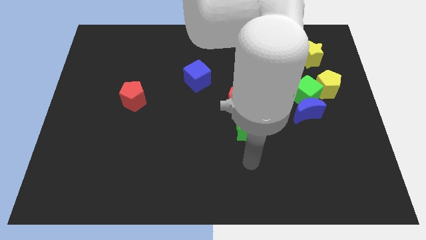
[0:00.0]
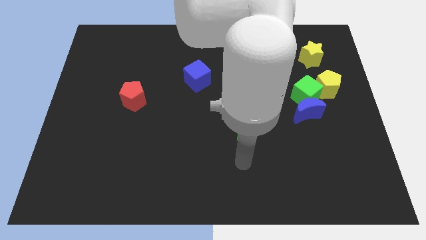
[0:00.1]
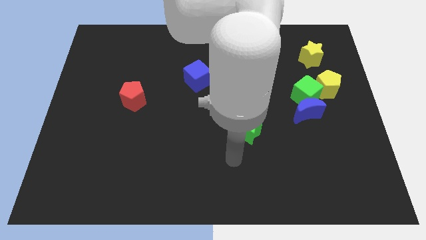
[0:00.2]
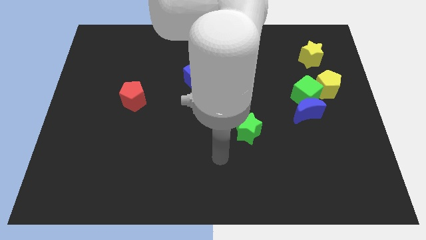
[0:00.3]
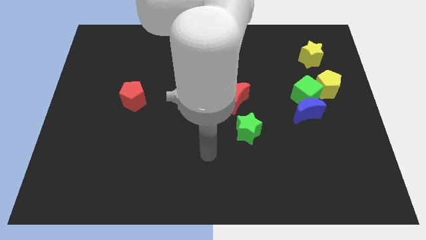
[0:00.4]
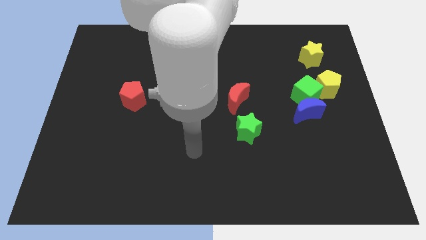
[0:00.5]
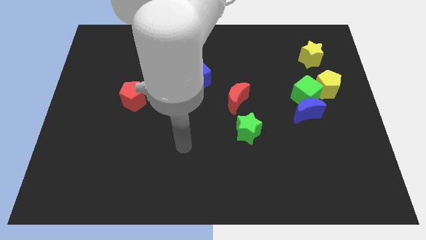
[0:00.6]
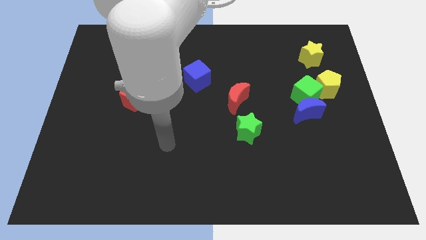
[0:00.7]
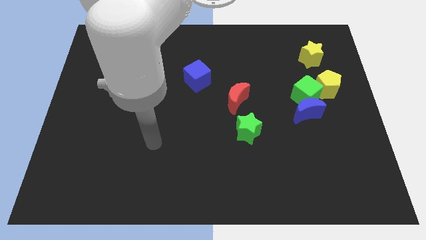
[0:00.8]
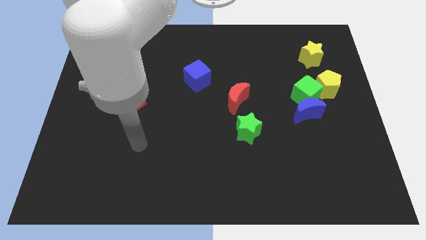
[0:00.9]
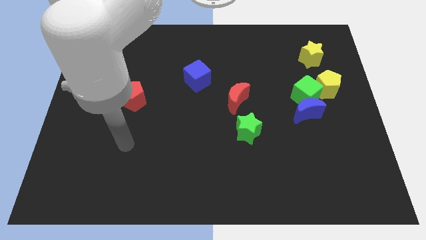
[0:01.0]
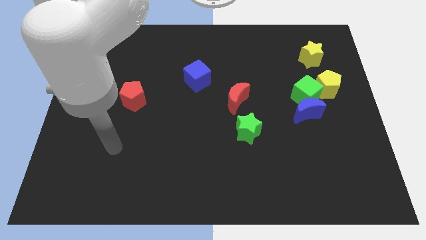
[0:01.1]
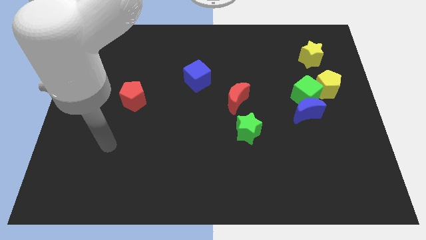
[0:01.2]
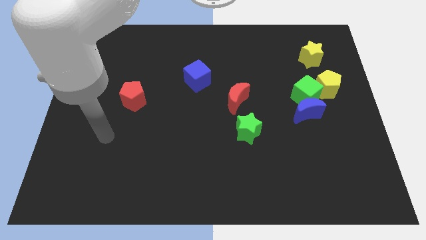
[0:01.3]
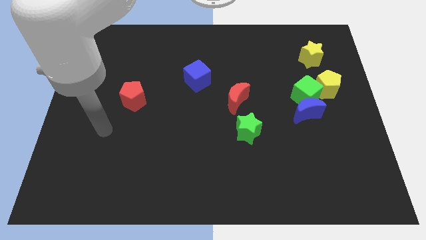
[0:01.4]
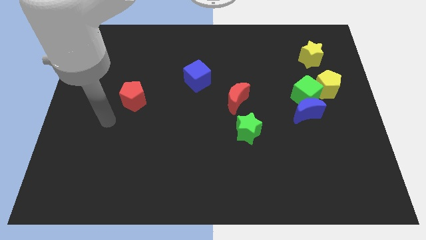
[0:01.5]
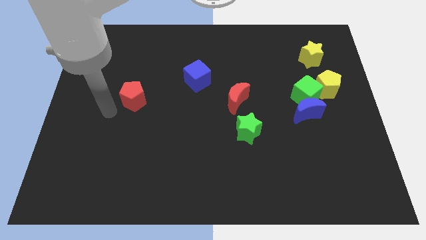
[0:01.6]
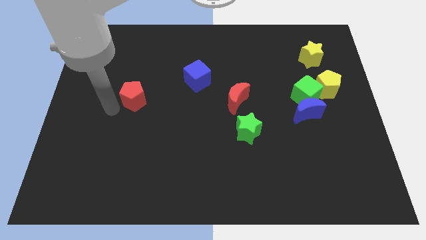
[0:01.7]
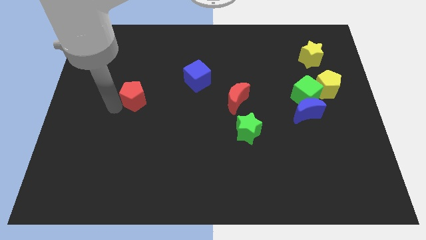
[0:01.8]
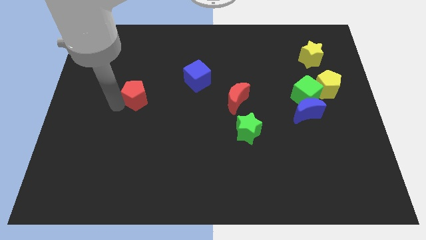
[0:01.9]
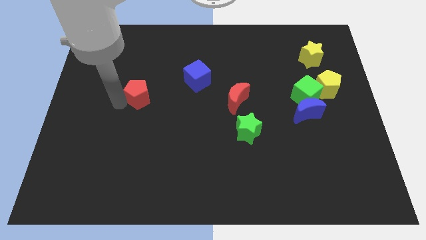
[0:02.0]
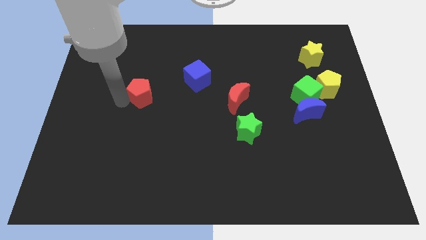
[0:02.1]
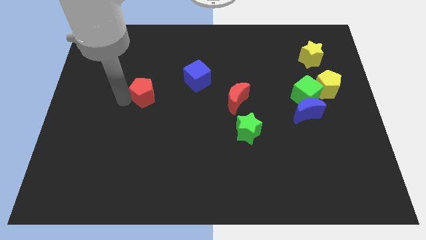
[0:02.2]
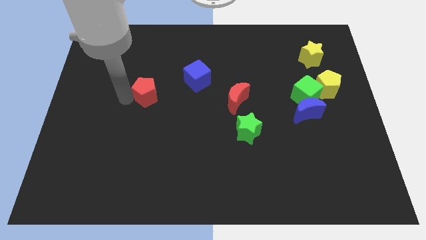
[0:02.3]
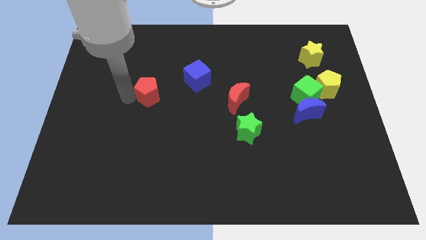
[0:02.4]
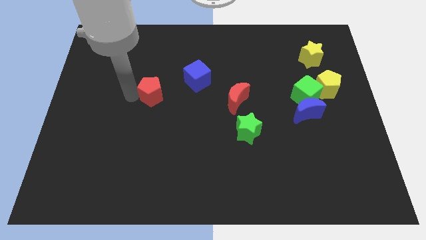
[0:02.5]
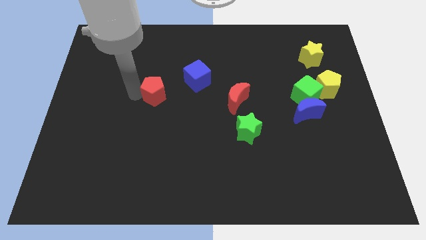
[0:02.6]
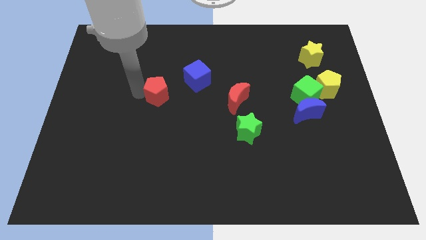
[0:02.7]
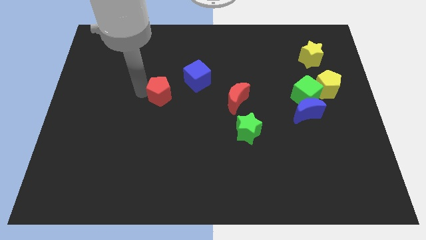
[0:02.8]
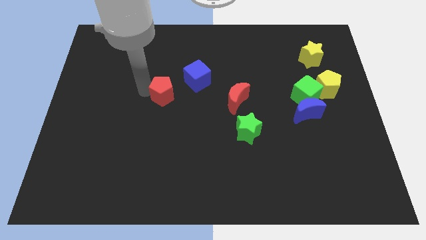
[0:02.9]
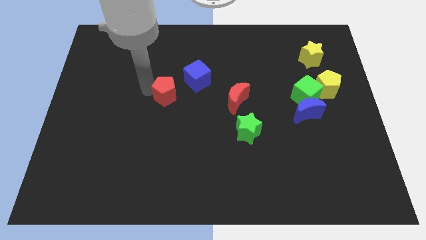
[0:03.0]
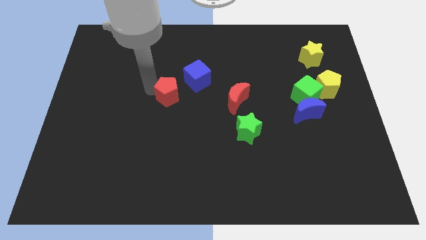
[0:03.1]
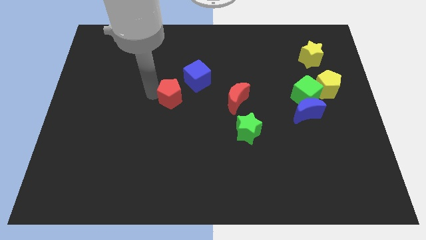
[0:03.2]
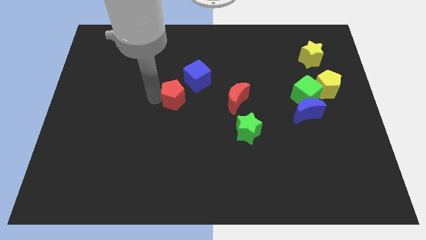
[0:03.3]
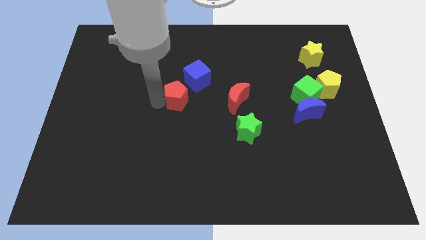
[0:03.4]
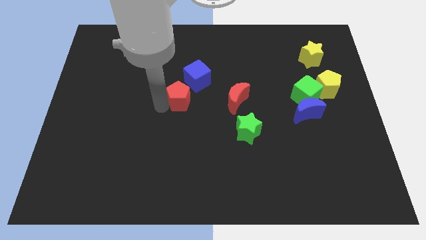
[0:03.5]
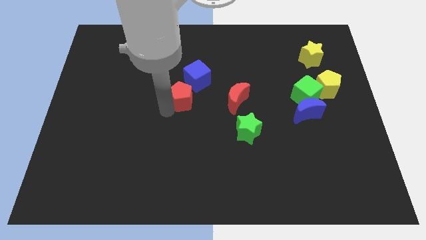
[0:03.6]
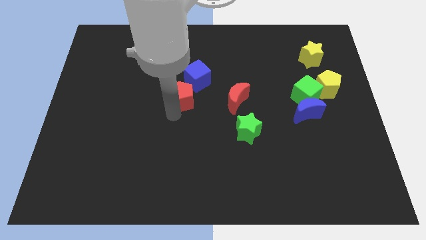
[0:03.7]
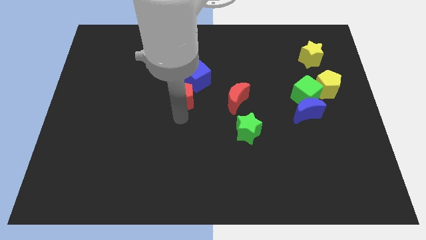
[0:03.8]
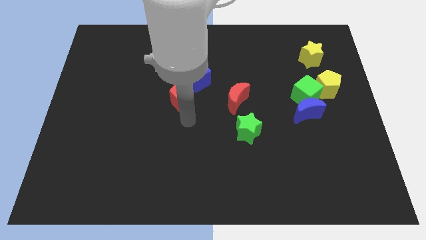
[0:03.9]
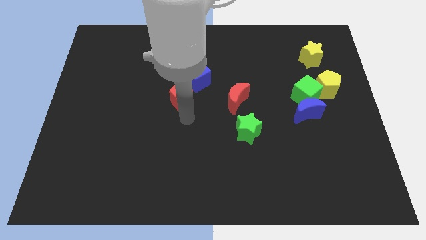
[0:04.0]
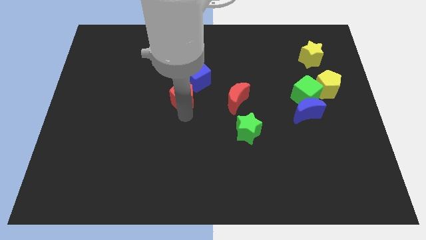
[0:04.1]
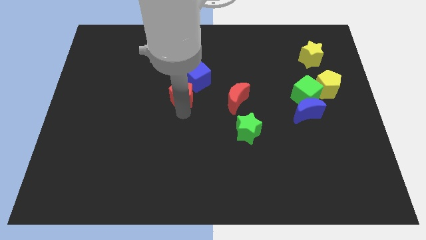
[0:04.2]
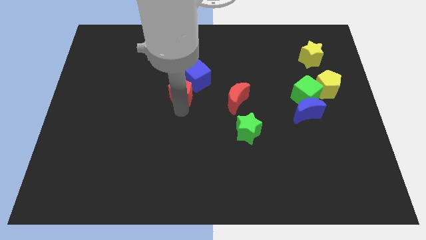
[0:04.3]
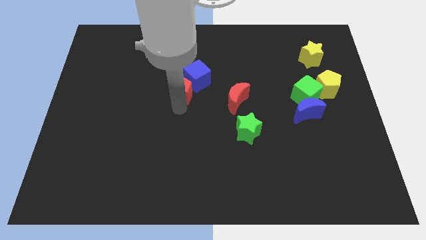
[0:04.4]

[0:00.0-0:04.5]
slightly push the red pentagon up and right

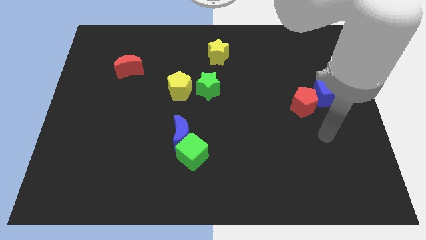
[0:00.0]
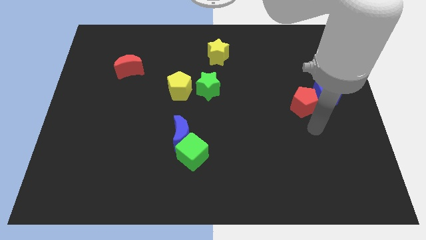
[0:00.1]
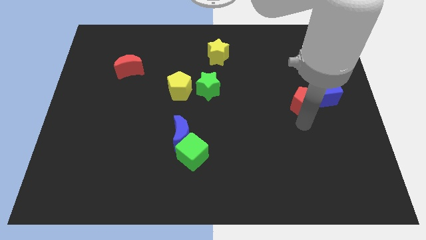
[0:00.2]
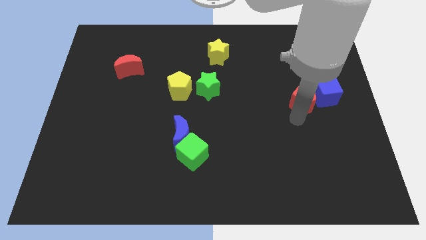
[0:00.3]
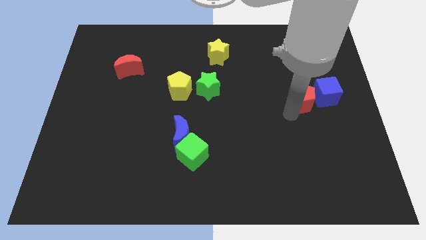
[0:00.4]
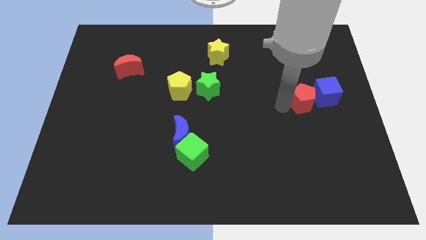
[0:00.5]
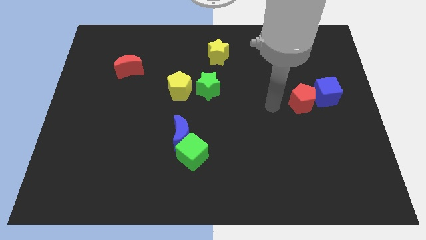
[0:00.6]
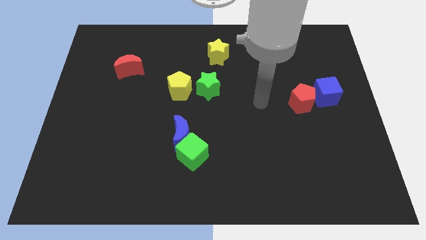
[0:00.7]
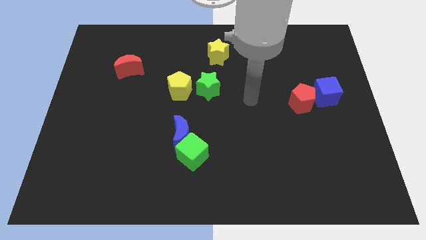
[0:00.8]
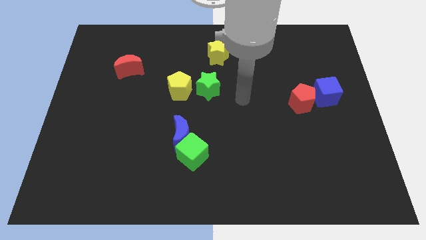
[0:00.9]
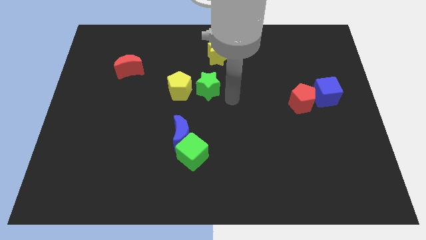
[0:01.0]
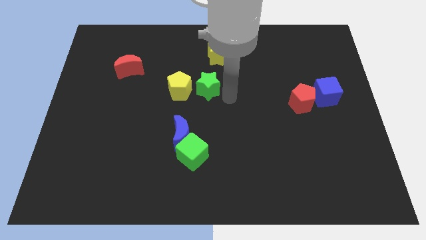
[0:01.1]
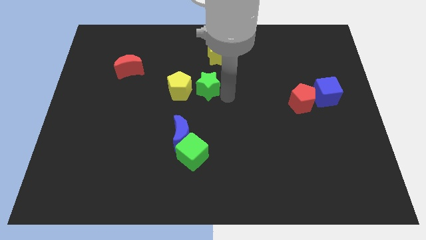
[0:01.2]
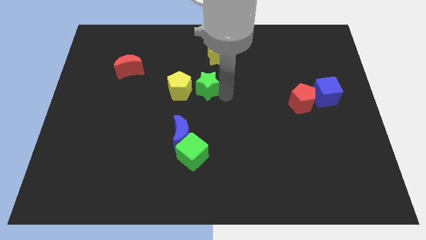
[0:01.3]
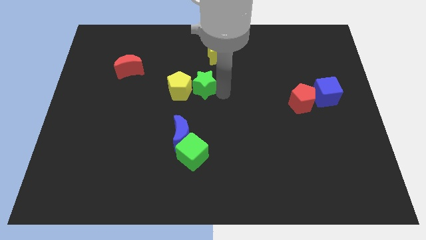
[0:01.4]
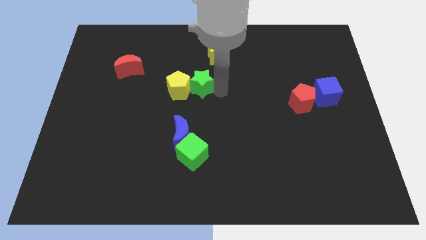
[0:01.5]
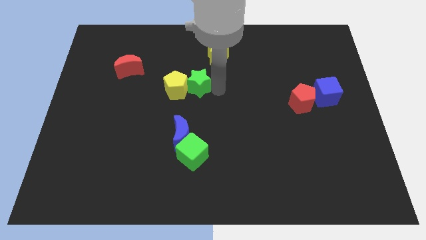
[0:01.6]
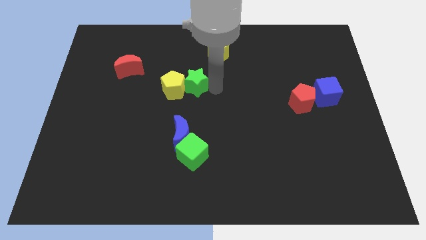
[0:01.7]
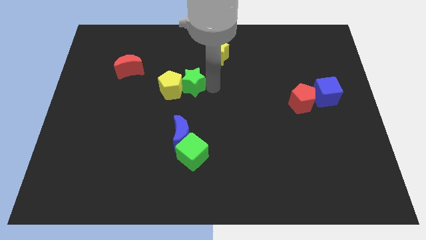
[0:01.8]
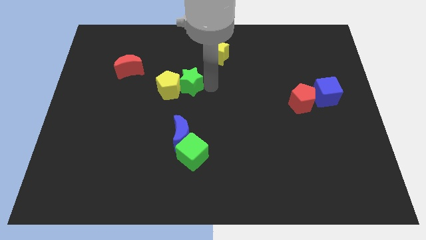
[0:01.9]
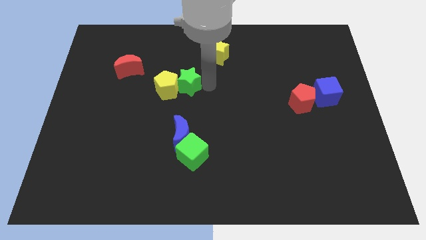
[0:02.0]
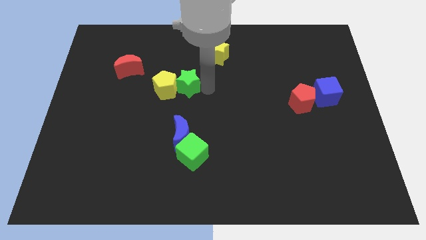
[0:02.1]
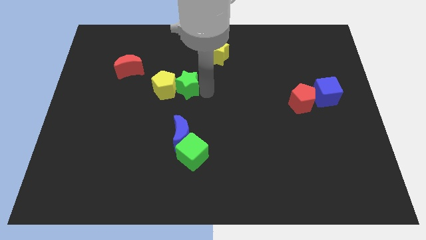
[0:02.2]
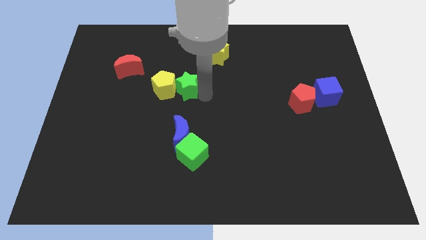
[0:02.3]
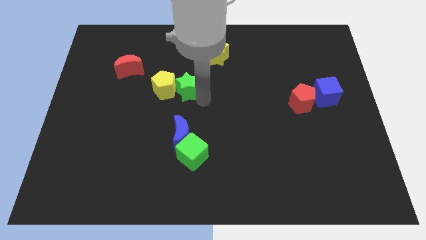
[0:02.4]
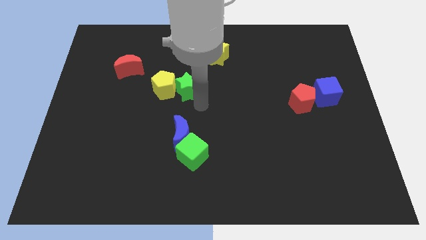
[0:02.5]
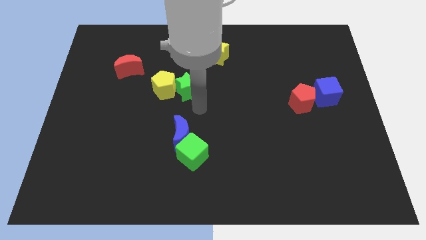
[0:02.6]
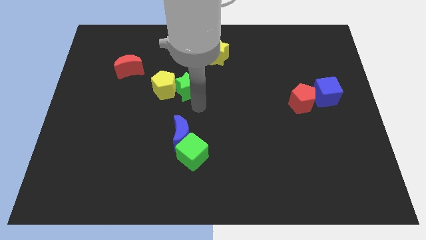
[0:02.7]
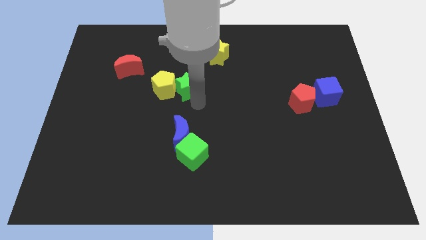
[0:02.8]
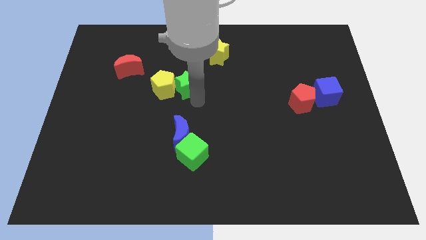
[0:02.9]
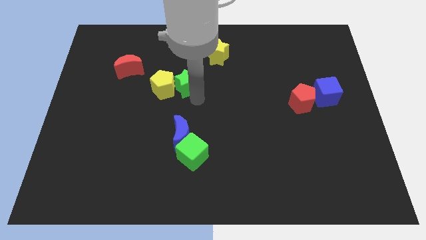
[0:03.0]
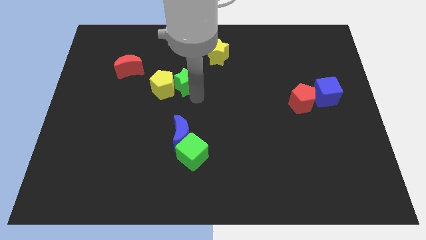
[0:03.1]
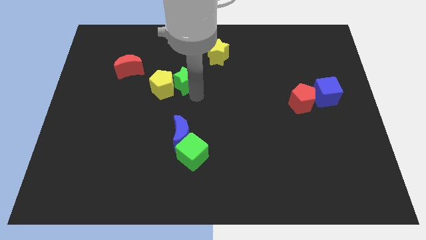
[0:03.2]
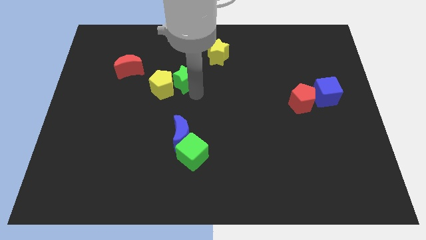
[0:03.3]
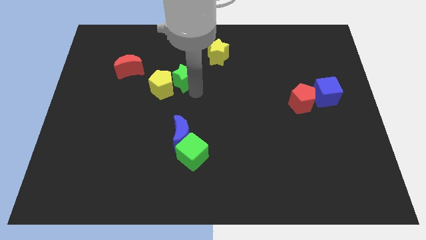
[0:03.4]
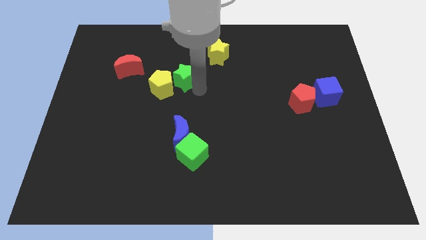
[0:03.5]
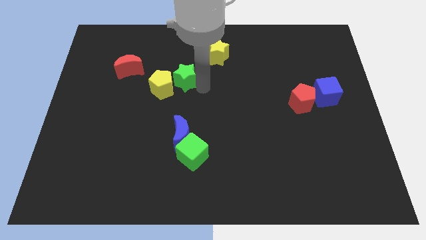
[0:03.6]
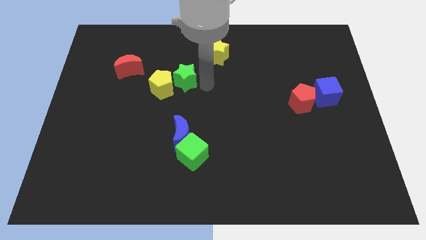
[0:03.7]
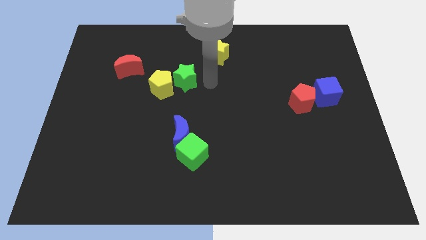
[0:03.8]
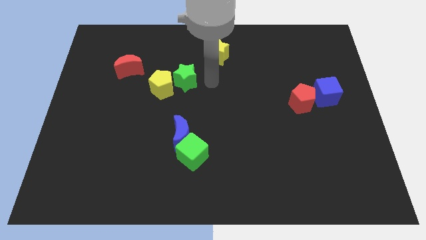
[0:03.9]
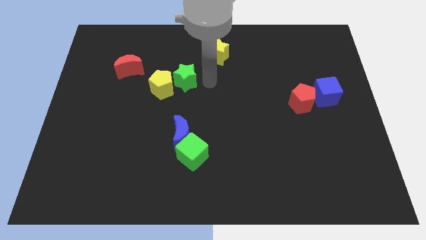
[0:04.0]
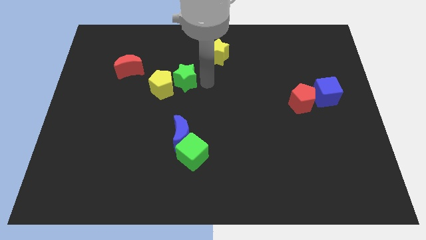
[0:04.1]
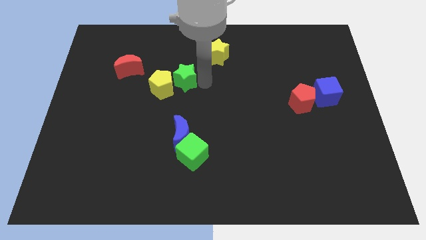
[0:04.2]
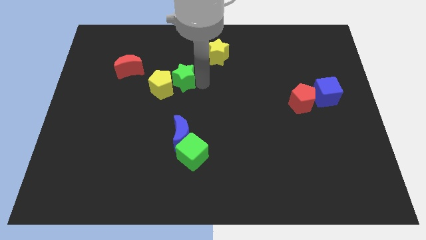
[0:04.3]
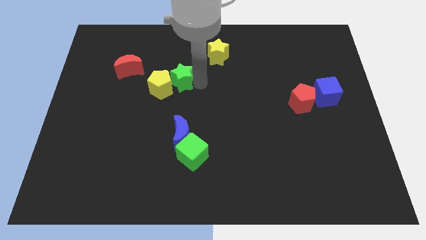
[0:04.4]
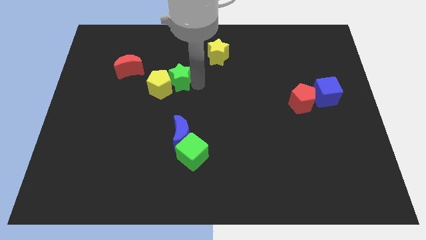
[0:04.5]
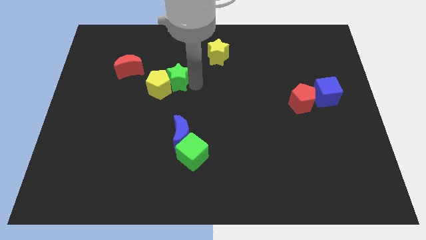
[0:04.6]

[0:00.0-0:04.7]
push the green star a little bit to the left
